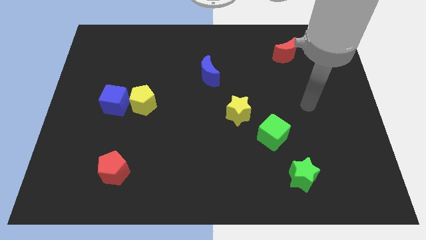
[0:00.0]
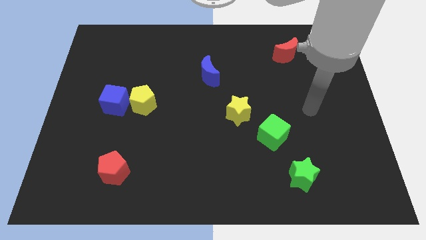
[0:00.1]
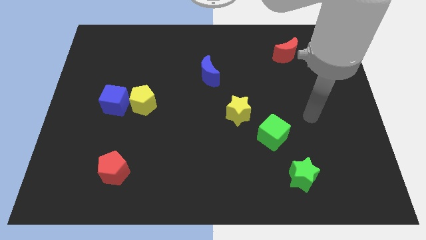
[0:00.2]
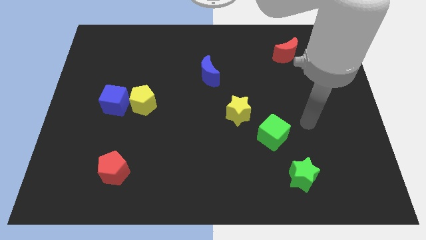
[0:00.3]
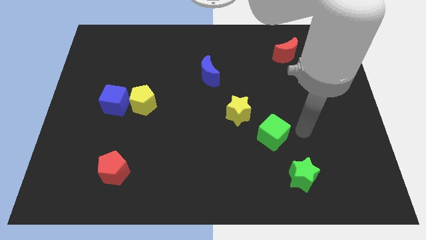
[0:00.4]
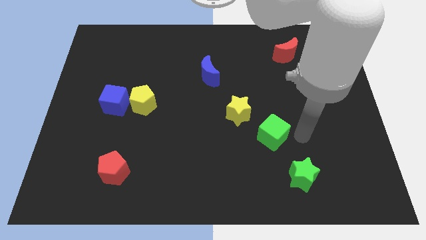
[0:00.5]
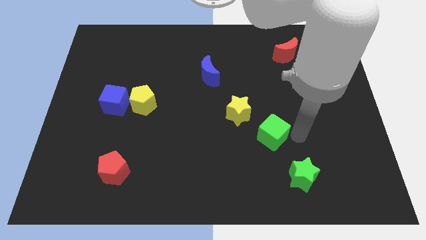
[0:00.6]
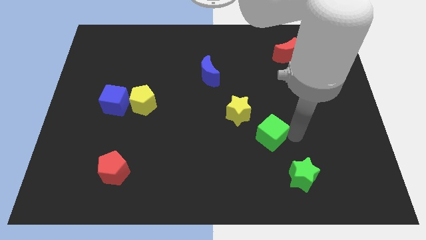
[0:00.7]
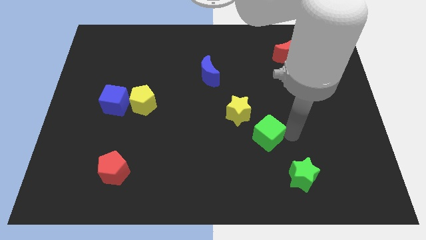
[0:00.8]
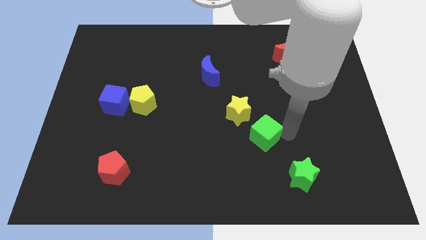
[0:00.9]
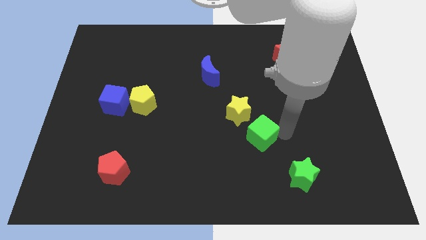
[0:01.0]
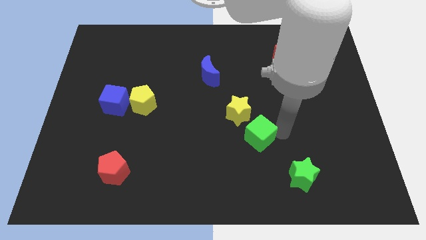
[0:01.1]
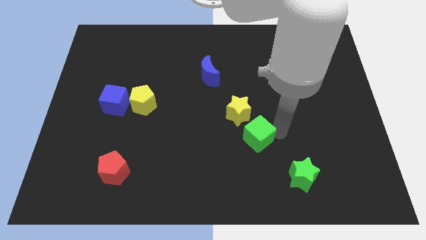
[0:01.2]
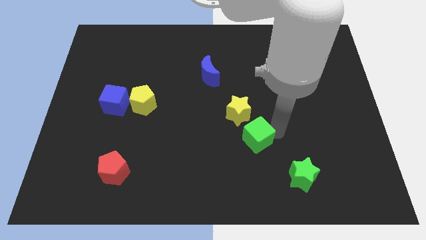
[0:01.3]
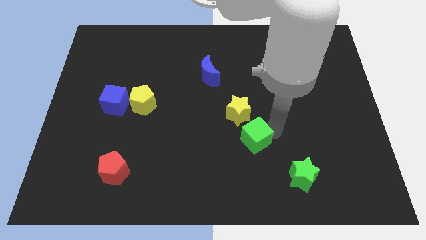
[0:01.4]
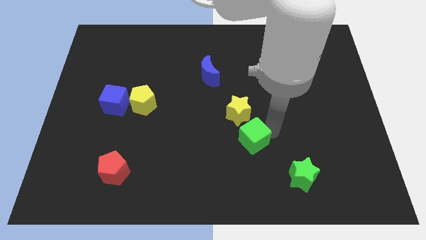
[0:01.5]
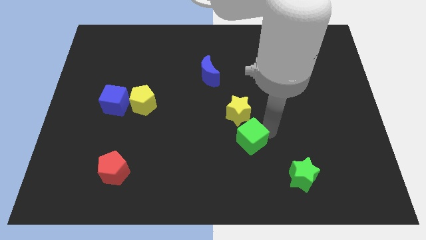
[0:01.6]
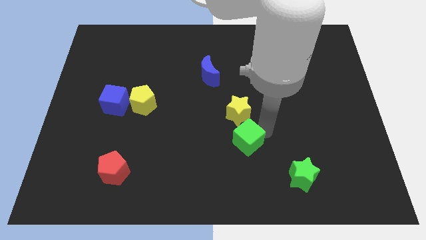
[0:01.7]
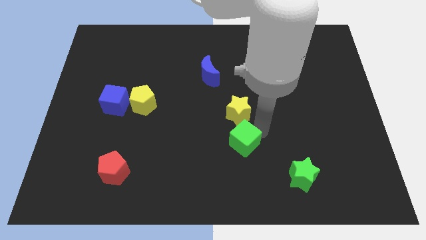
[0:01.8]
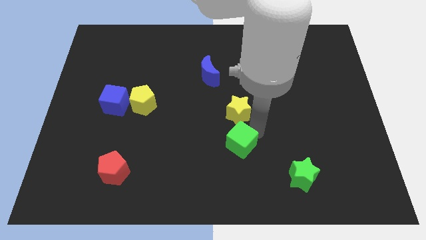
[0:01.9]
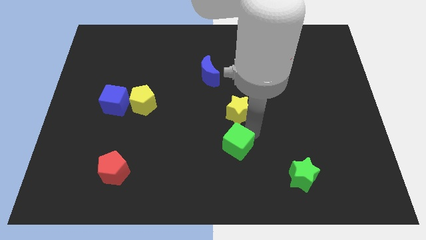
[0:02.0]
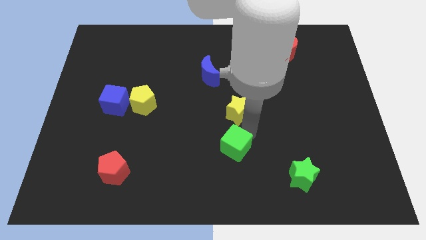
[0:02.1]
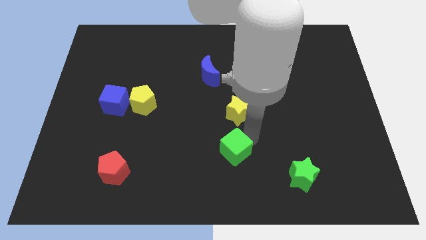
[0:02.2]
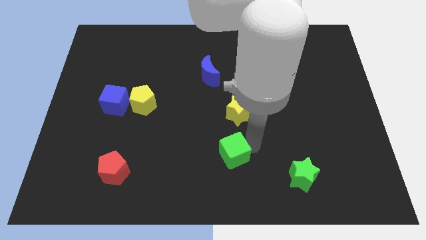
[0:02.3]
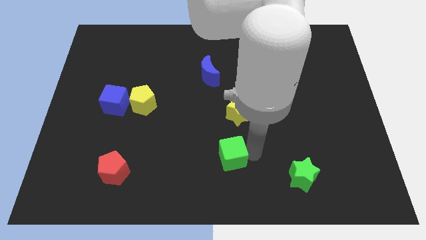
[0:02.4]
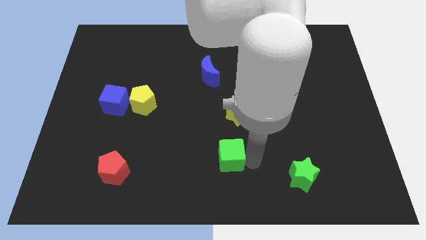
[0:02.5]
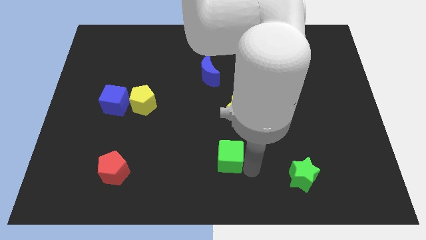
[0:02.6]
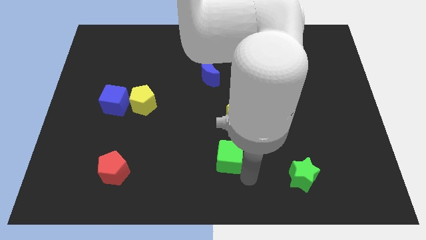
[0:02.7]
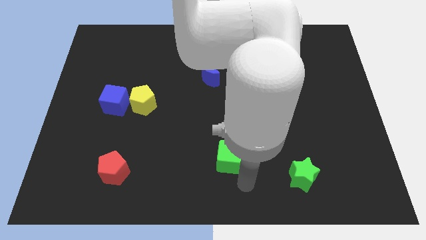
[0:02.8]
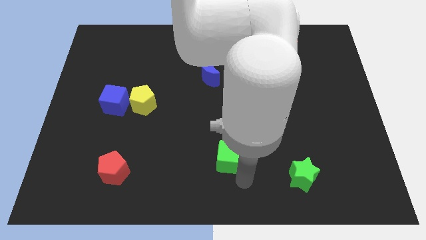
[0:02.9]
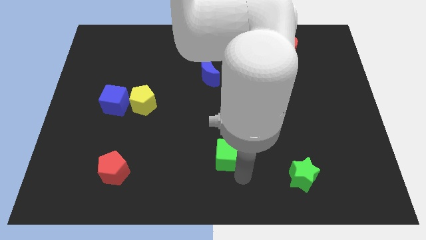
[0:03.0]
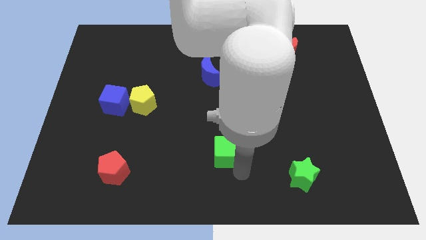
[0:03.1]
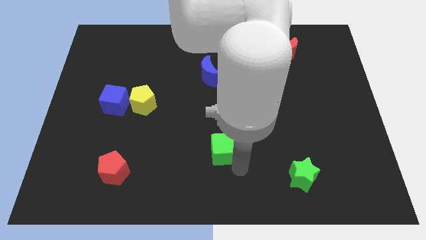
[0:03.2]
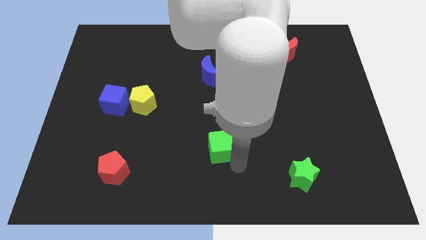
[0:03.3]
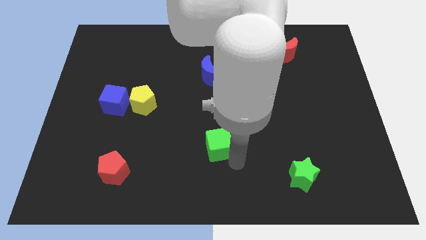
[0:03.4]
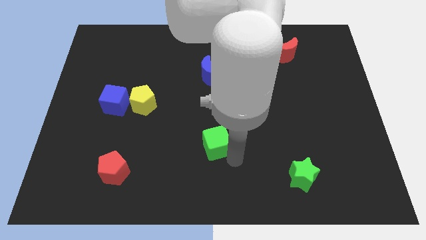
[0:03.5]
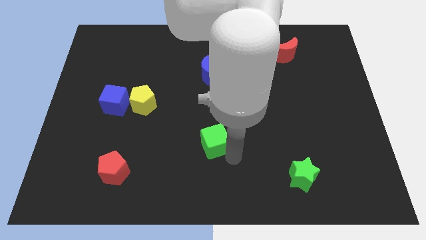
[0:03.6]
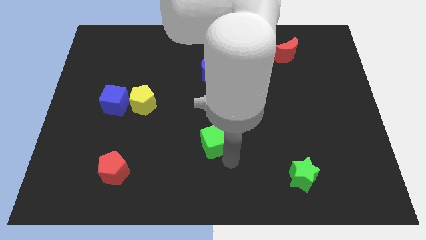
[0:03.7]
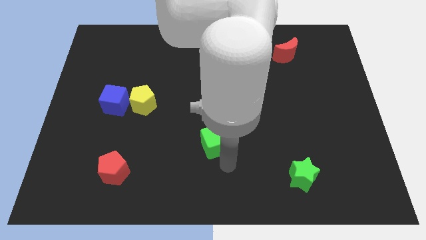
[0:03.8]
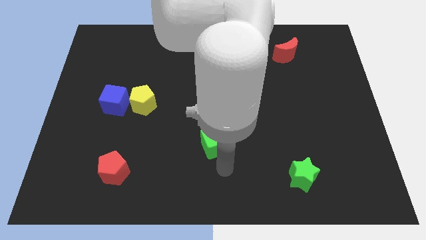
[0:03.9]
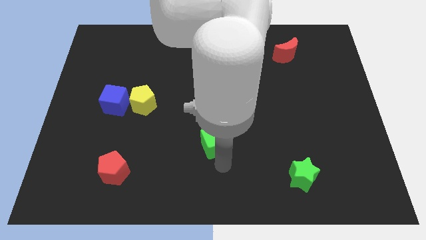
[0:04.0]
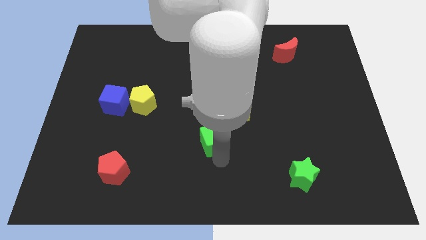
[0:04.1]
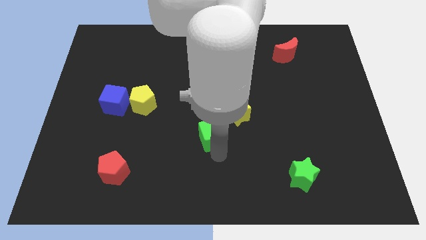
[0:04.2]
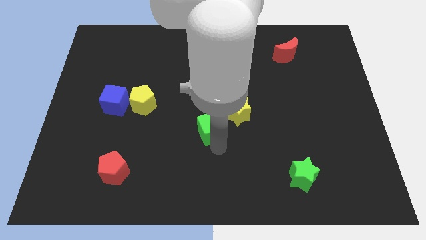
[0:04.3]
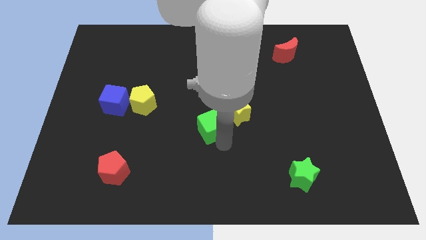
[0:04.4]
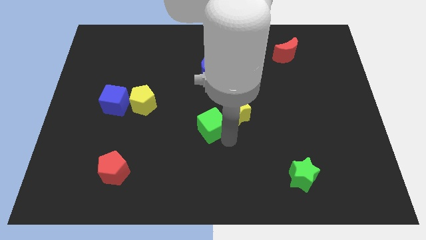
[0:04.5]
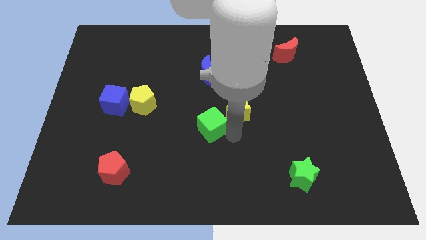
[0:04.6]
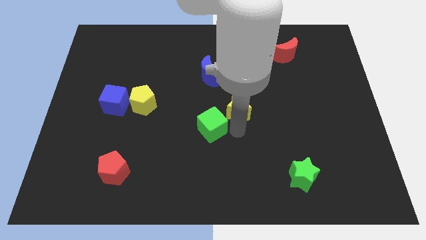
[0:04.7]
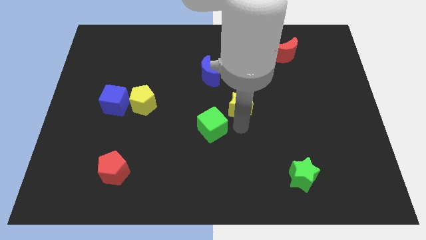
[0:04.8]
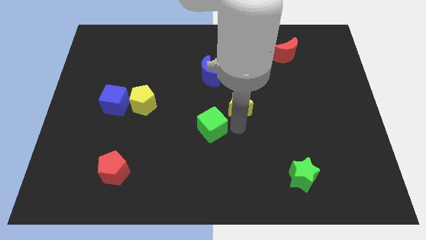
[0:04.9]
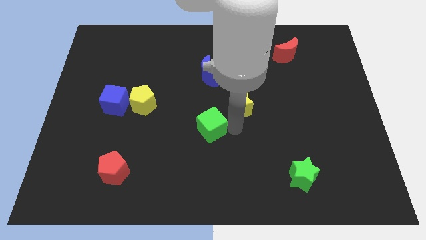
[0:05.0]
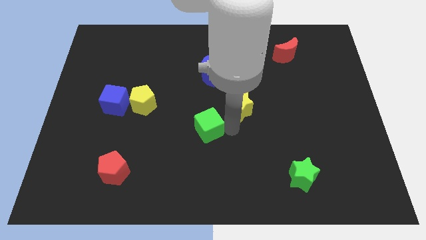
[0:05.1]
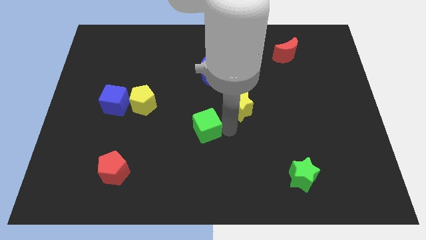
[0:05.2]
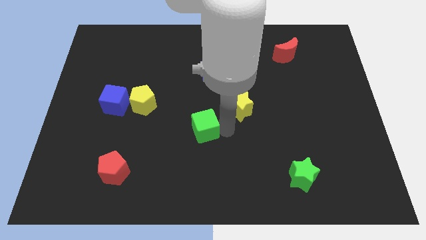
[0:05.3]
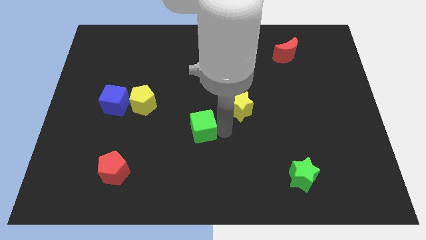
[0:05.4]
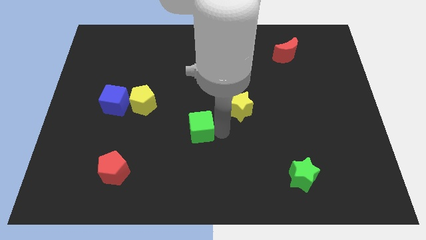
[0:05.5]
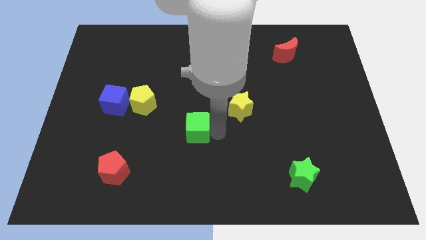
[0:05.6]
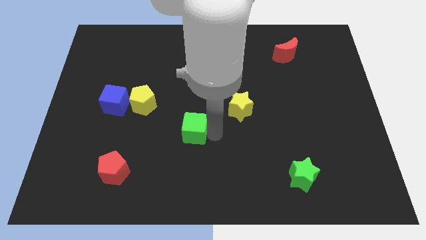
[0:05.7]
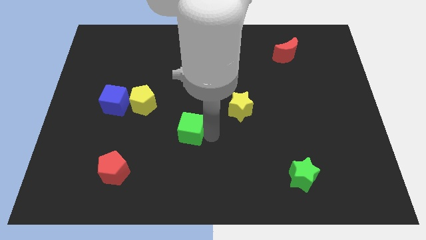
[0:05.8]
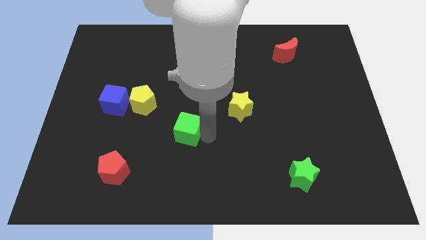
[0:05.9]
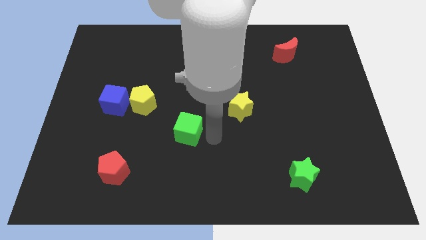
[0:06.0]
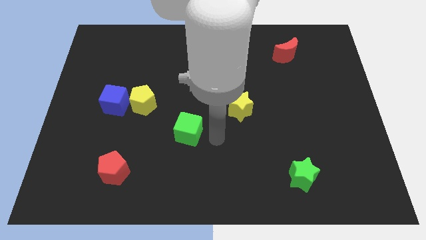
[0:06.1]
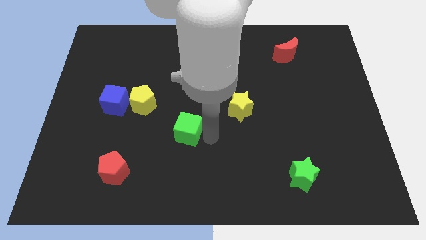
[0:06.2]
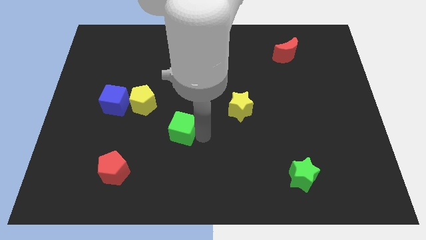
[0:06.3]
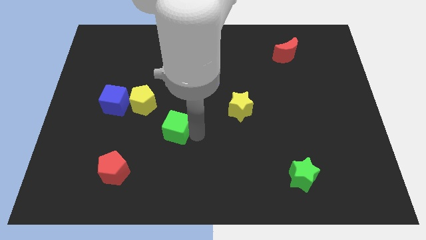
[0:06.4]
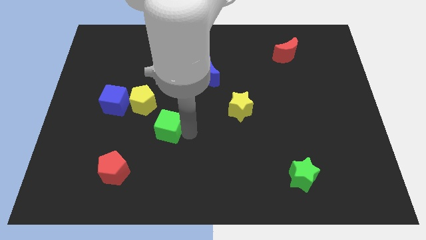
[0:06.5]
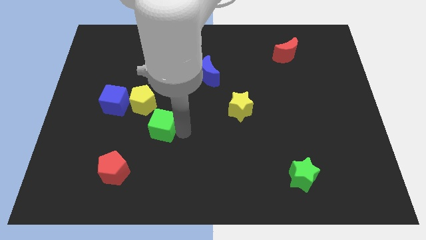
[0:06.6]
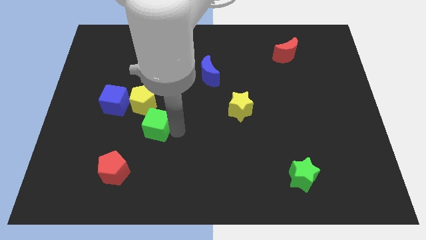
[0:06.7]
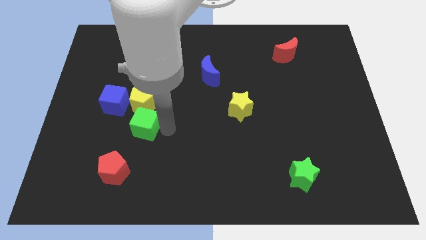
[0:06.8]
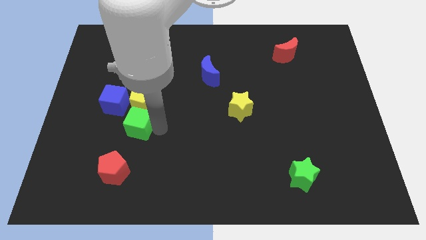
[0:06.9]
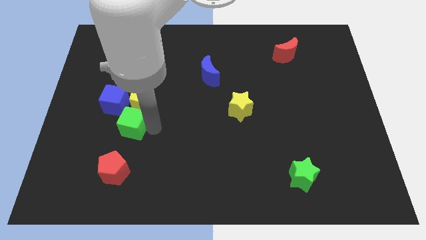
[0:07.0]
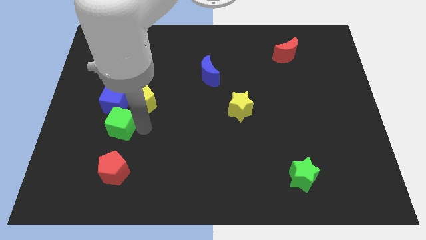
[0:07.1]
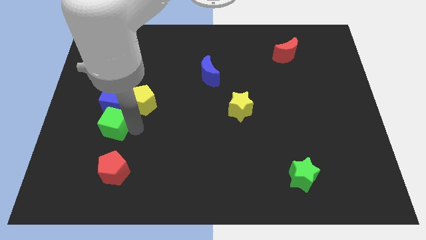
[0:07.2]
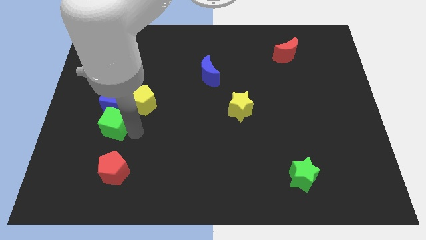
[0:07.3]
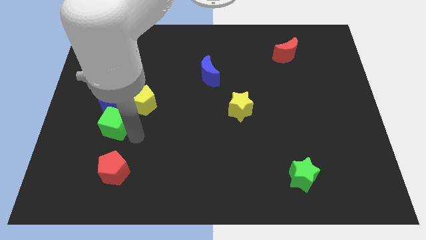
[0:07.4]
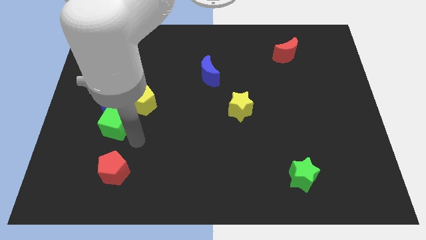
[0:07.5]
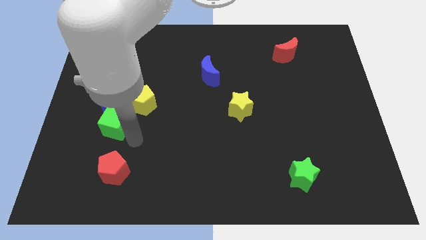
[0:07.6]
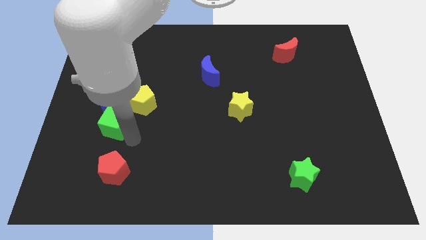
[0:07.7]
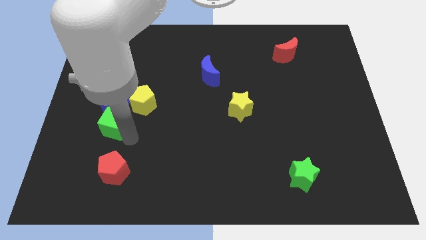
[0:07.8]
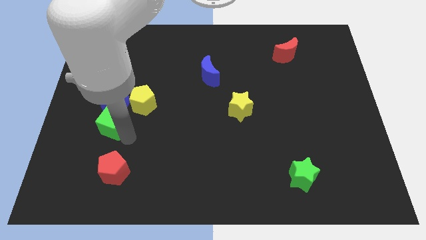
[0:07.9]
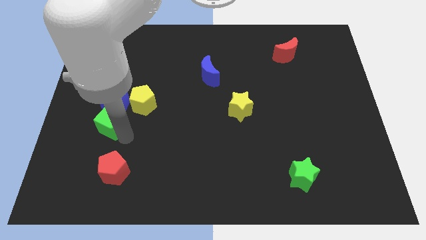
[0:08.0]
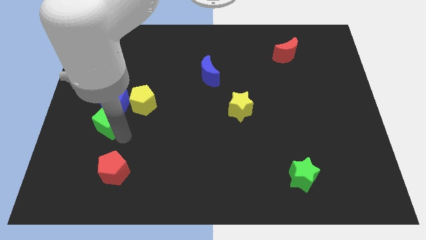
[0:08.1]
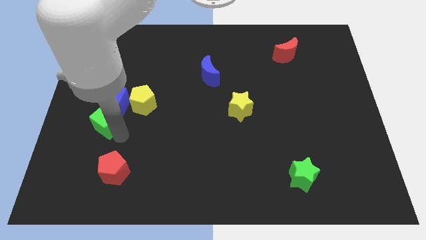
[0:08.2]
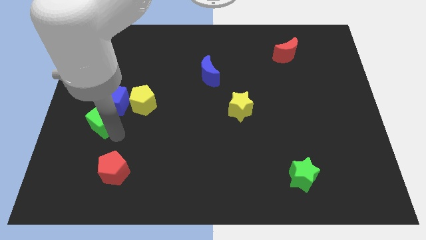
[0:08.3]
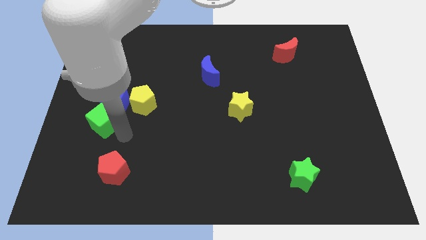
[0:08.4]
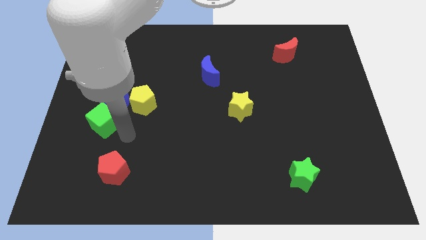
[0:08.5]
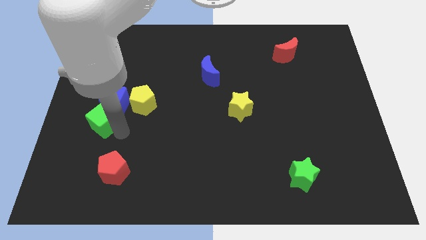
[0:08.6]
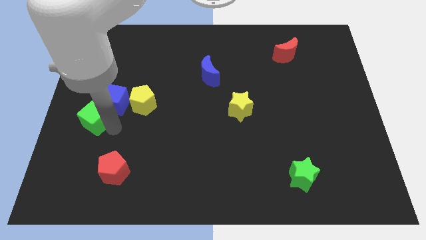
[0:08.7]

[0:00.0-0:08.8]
move the green cube to the left side of the board
